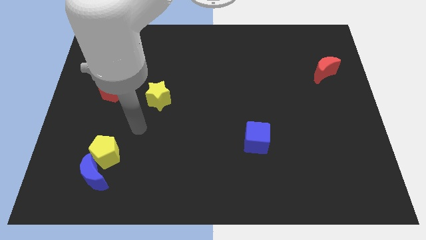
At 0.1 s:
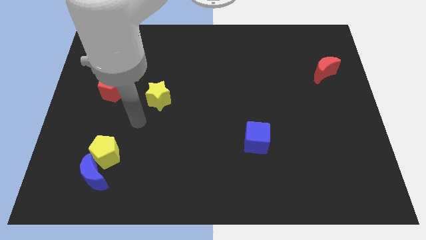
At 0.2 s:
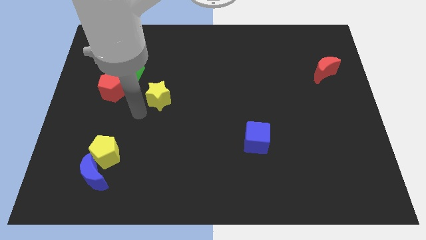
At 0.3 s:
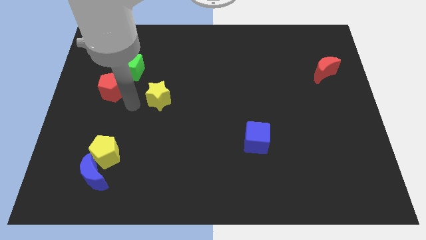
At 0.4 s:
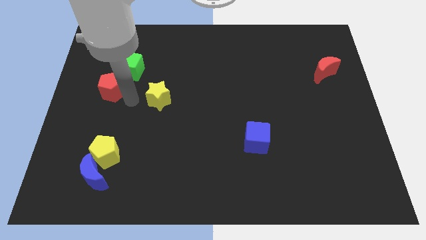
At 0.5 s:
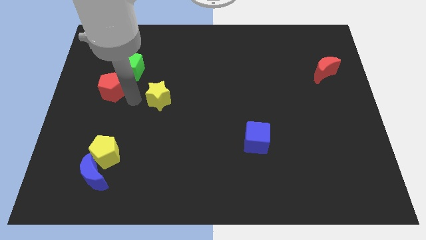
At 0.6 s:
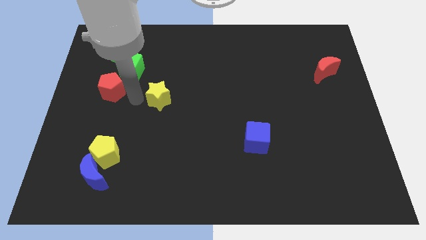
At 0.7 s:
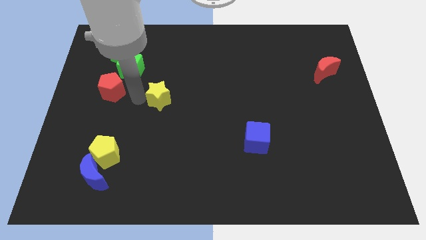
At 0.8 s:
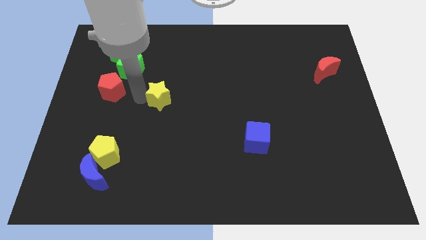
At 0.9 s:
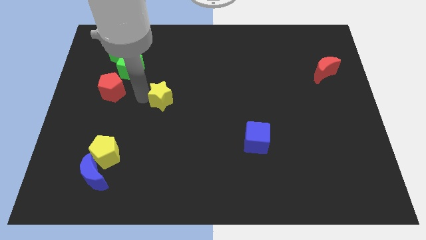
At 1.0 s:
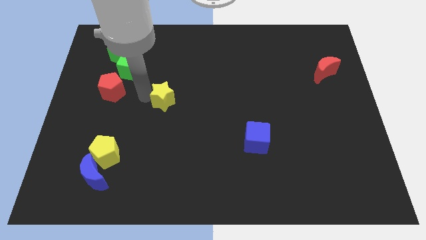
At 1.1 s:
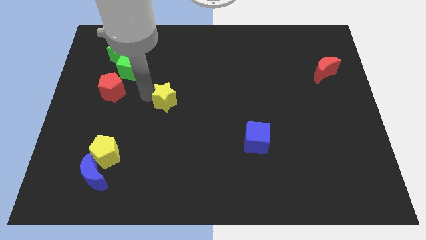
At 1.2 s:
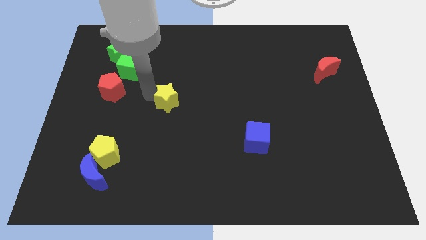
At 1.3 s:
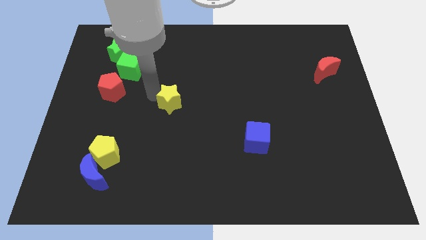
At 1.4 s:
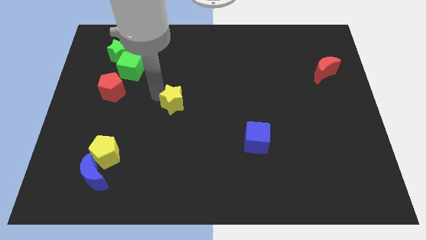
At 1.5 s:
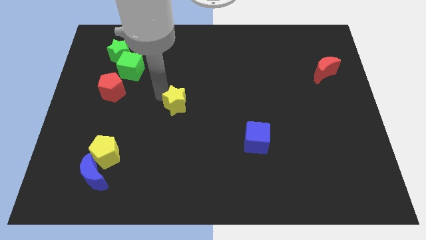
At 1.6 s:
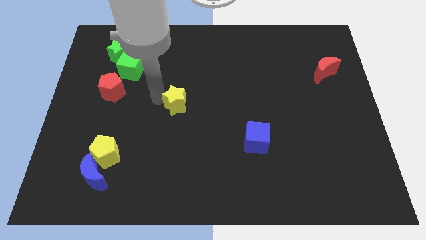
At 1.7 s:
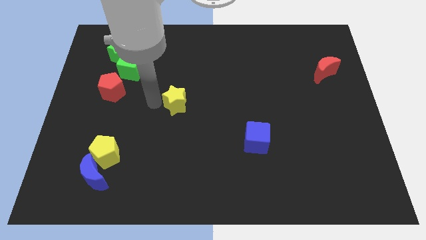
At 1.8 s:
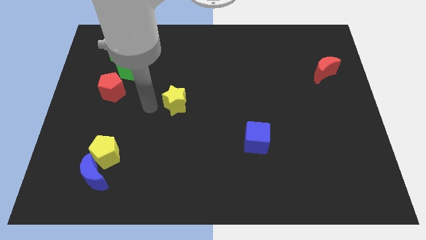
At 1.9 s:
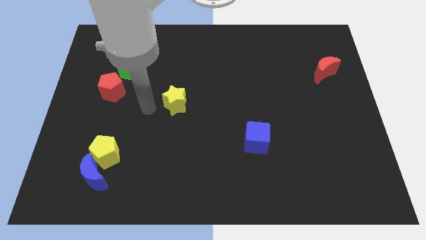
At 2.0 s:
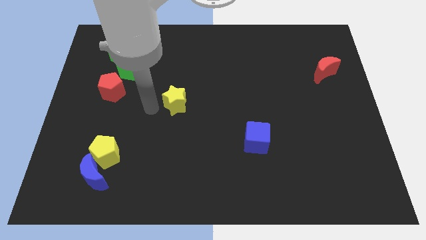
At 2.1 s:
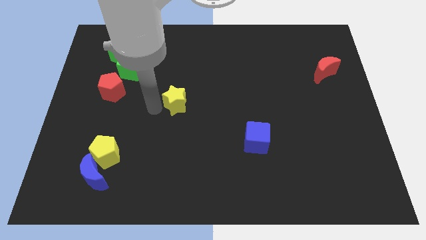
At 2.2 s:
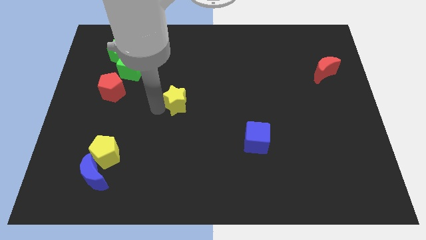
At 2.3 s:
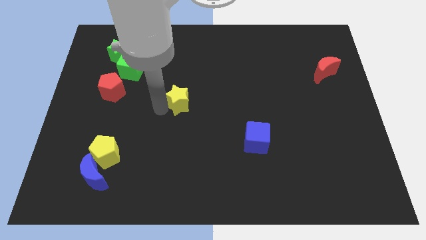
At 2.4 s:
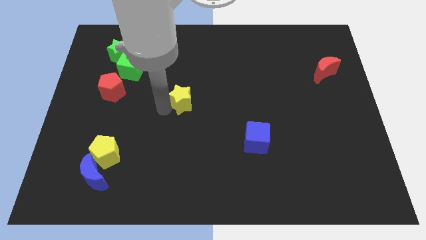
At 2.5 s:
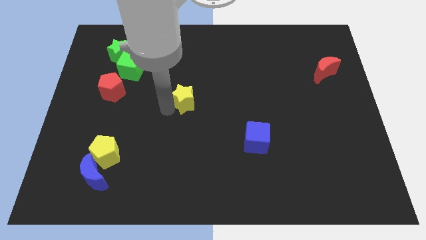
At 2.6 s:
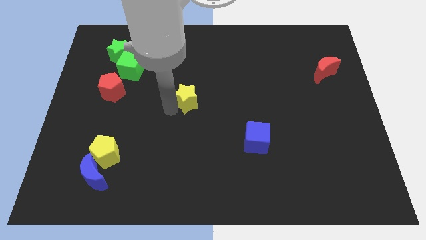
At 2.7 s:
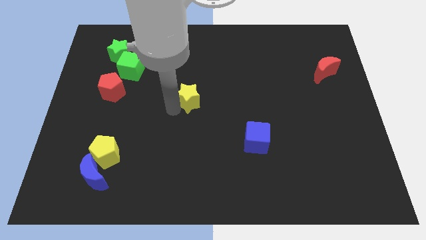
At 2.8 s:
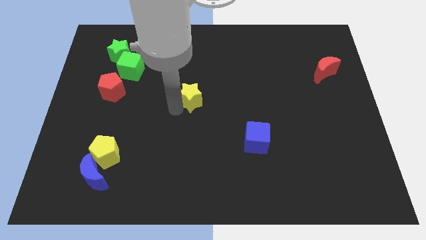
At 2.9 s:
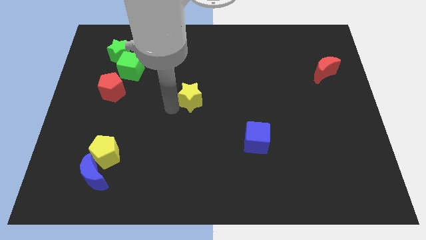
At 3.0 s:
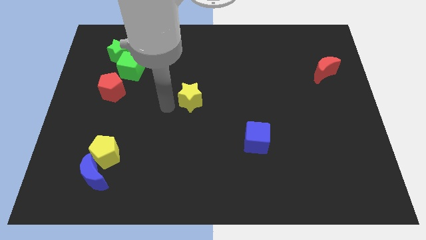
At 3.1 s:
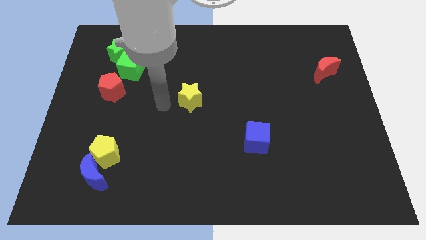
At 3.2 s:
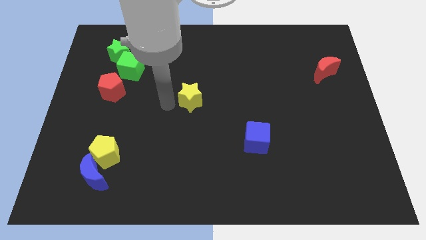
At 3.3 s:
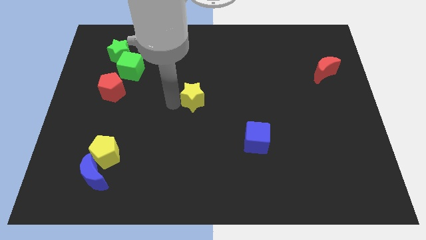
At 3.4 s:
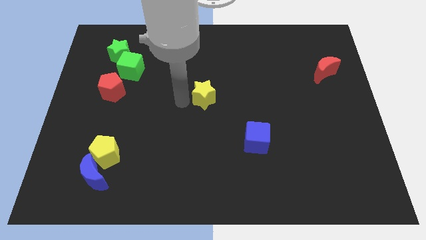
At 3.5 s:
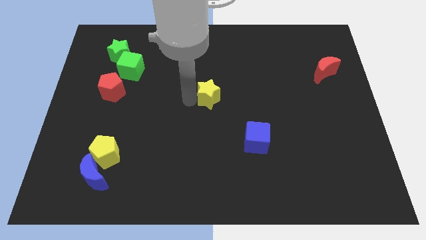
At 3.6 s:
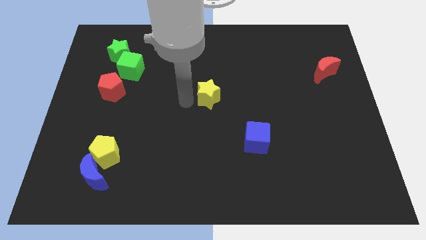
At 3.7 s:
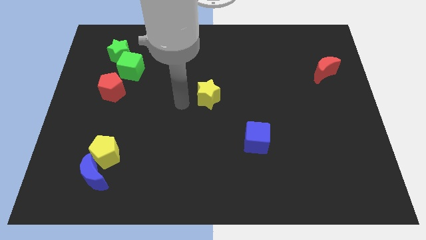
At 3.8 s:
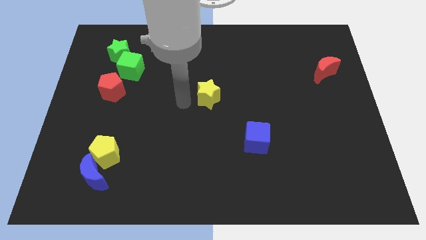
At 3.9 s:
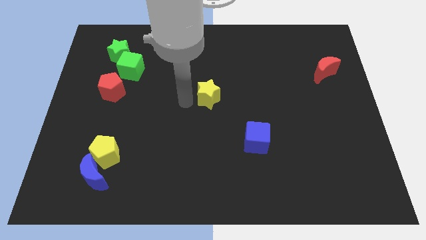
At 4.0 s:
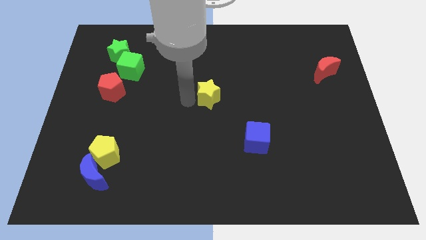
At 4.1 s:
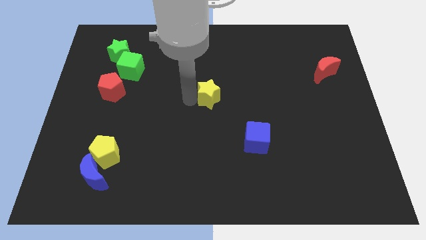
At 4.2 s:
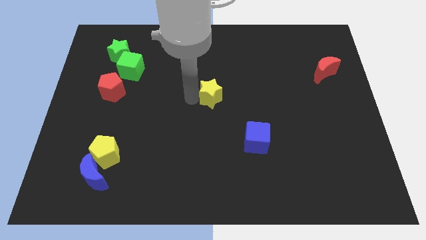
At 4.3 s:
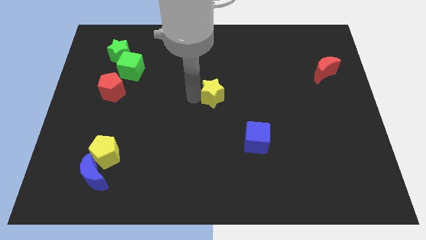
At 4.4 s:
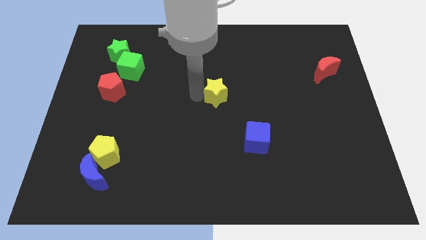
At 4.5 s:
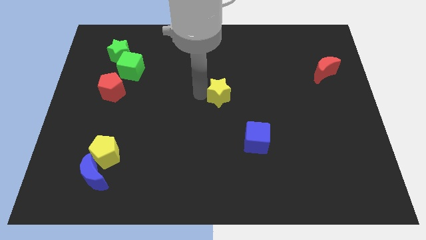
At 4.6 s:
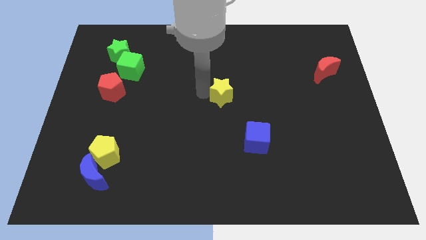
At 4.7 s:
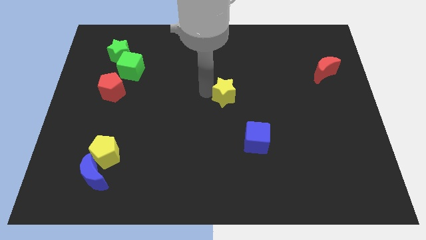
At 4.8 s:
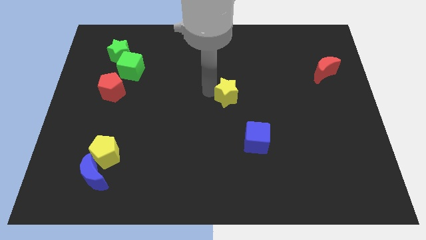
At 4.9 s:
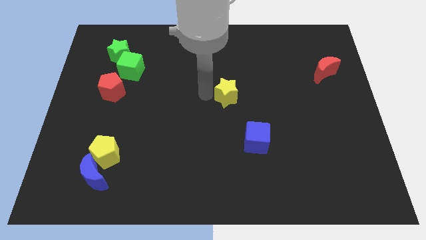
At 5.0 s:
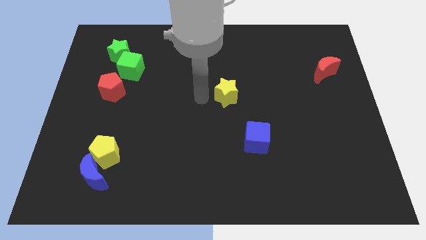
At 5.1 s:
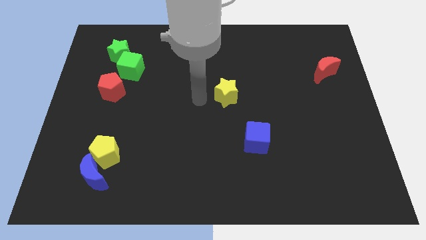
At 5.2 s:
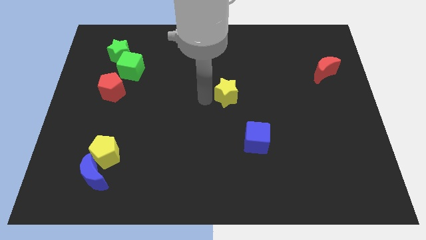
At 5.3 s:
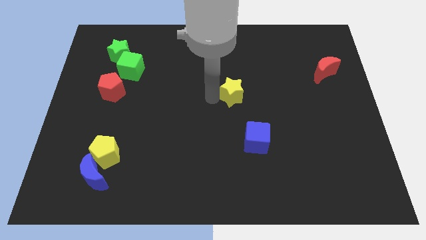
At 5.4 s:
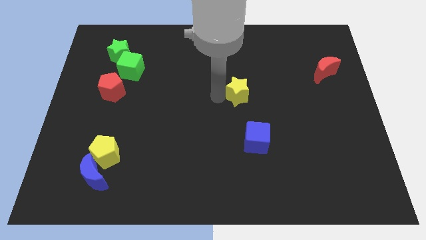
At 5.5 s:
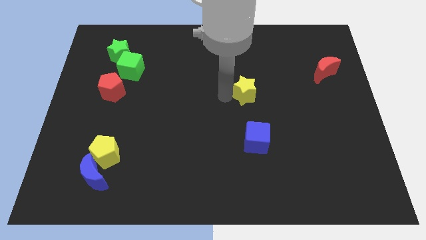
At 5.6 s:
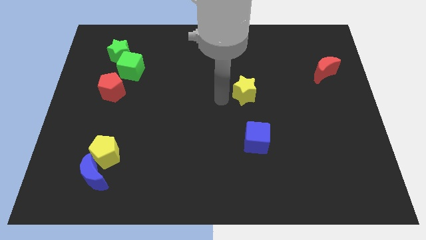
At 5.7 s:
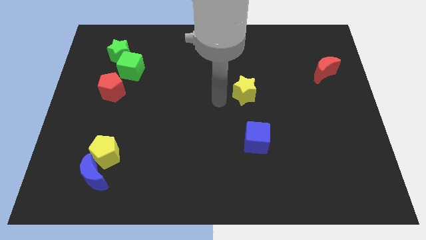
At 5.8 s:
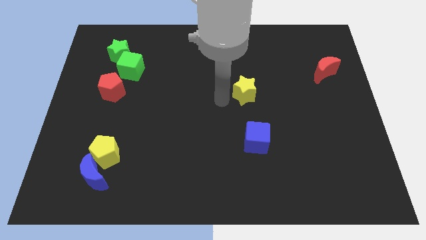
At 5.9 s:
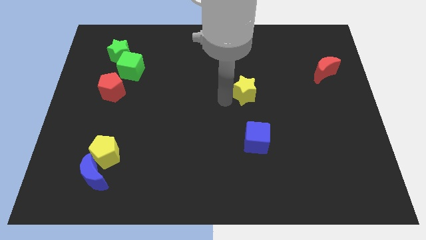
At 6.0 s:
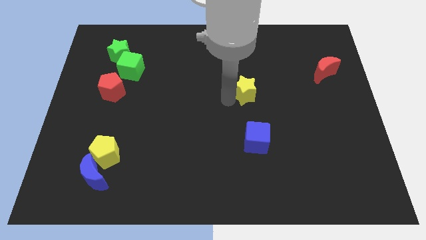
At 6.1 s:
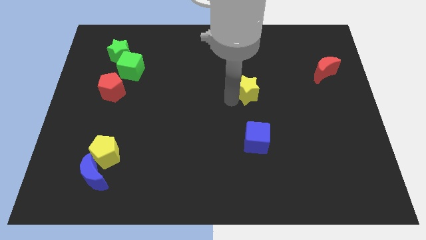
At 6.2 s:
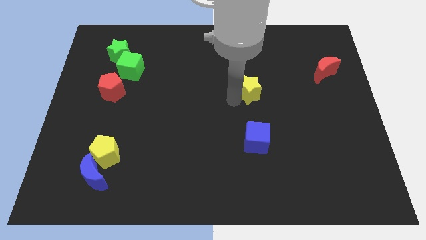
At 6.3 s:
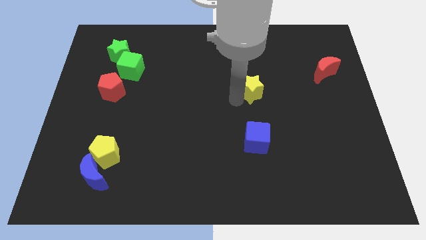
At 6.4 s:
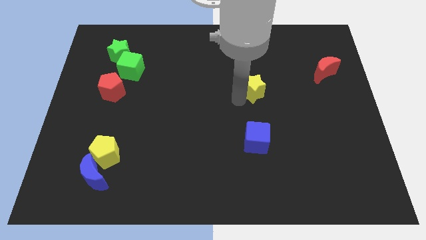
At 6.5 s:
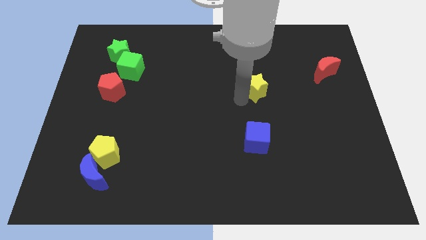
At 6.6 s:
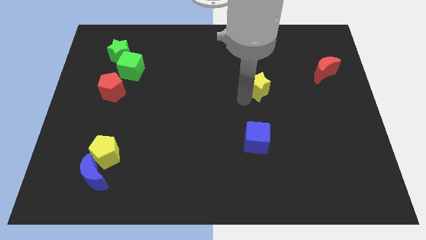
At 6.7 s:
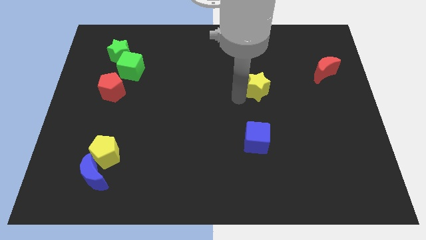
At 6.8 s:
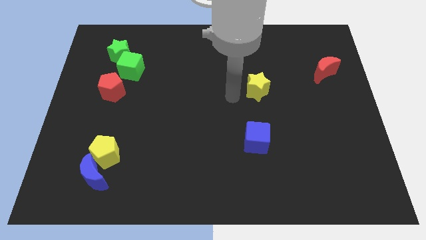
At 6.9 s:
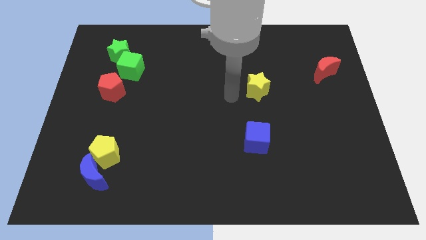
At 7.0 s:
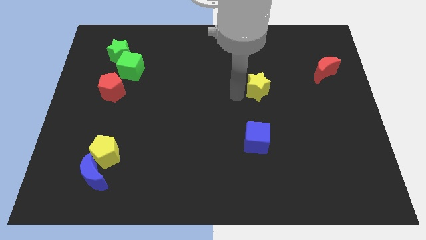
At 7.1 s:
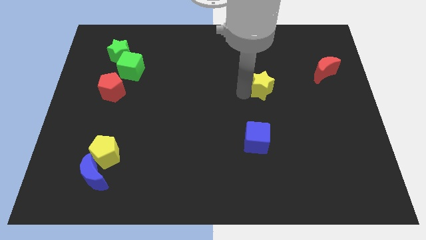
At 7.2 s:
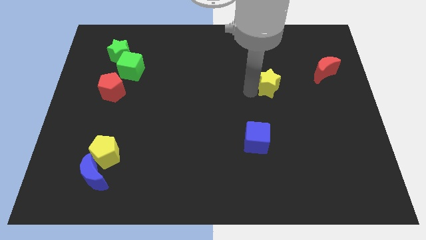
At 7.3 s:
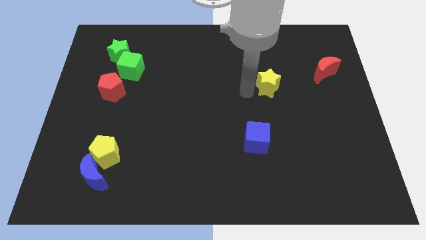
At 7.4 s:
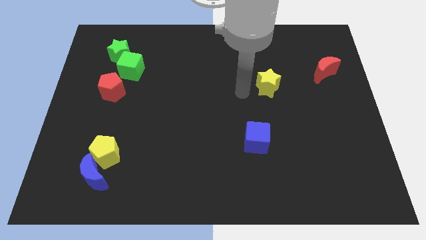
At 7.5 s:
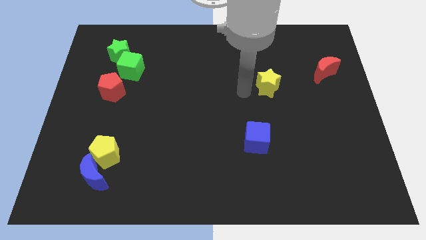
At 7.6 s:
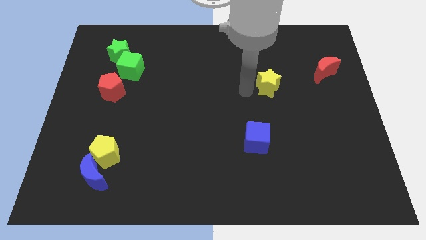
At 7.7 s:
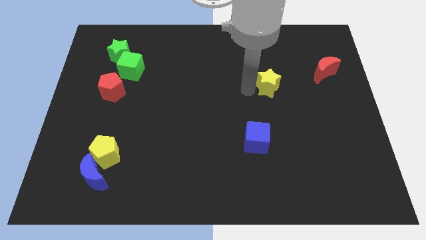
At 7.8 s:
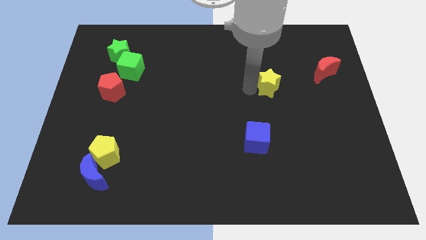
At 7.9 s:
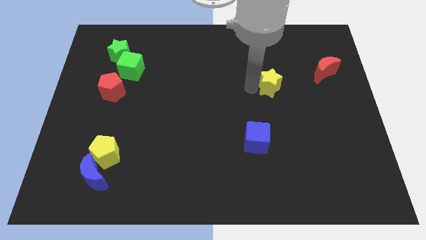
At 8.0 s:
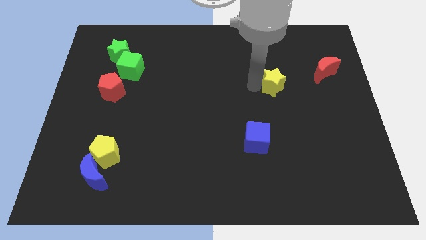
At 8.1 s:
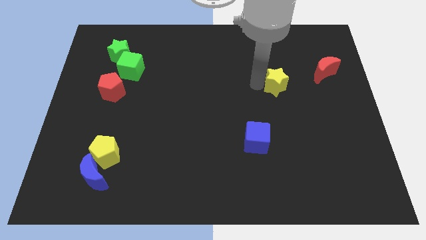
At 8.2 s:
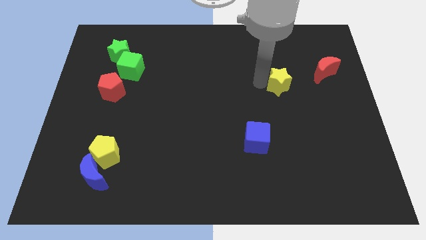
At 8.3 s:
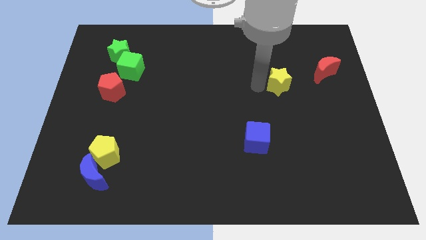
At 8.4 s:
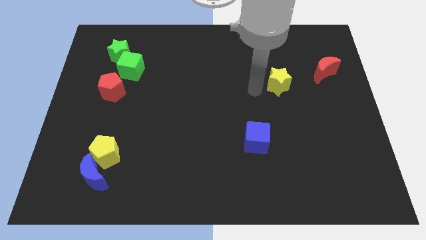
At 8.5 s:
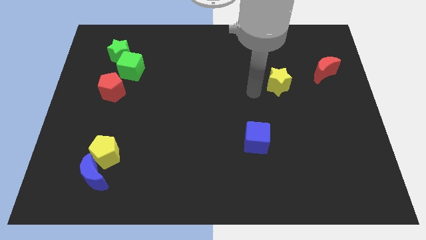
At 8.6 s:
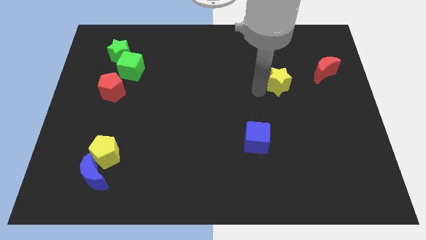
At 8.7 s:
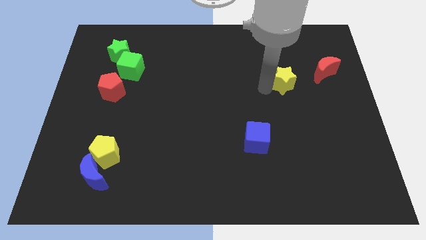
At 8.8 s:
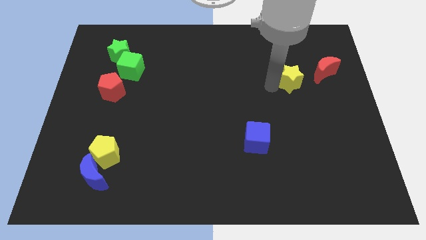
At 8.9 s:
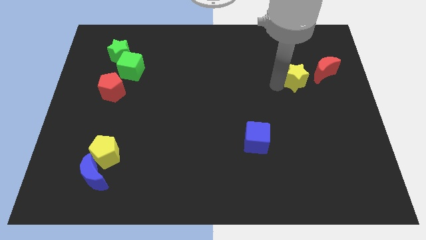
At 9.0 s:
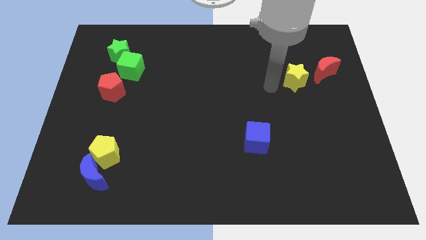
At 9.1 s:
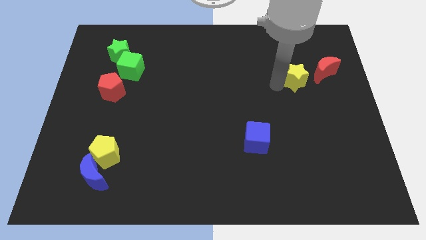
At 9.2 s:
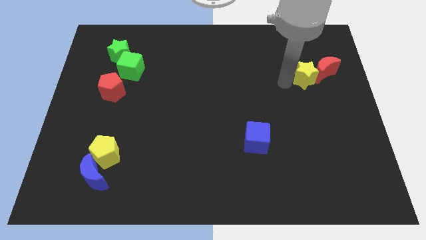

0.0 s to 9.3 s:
move the yellow star close to the red moon
